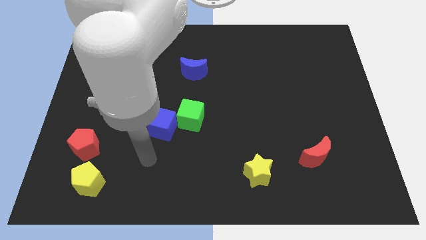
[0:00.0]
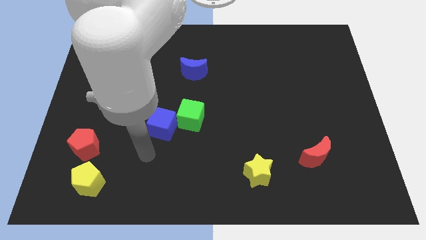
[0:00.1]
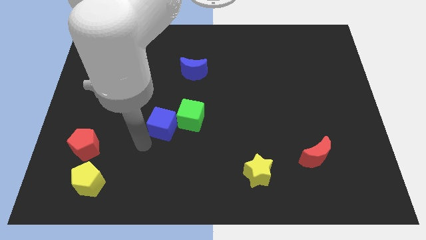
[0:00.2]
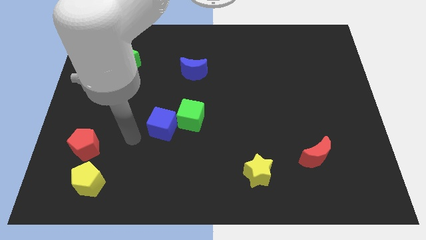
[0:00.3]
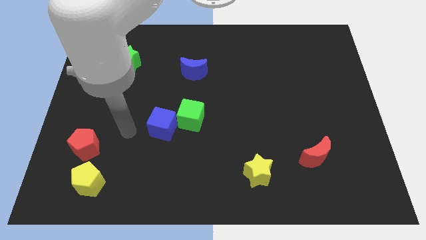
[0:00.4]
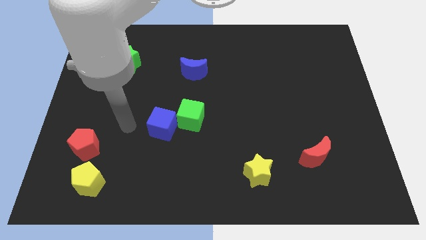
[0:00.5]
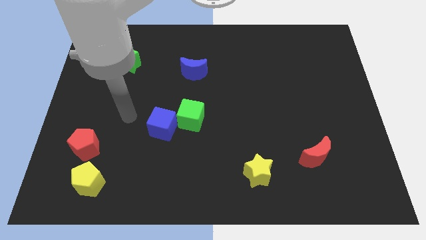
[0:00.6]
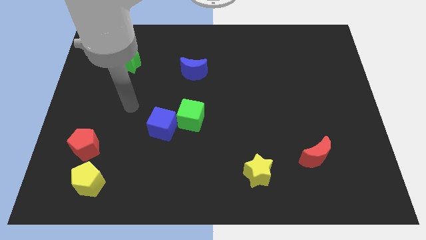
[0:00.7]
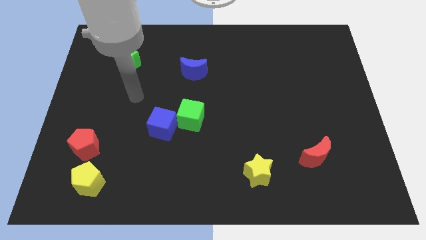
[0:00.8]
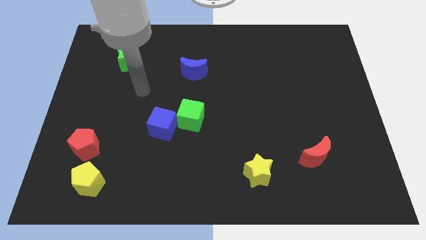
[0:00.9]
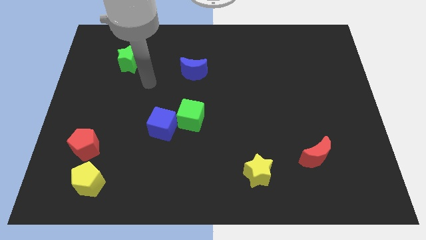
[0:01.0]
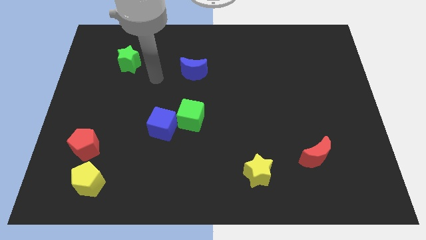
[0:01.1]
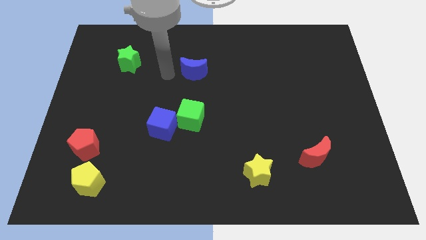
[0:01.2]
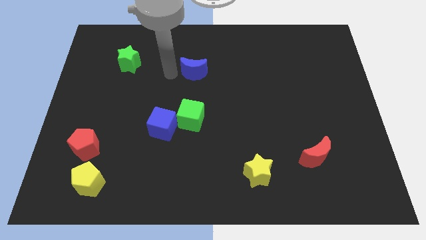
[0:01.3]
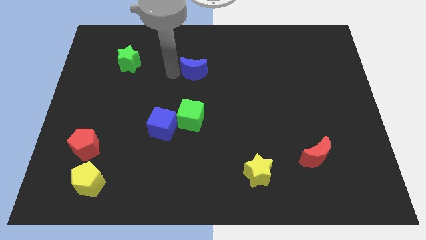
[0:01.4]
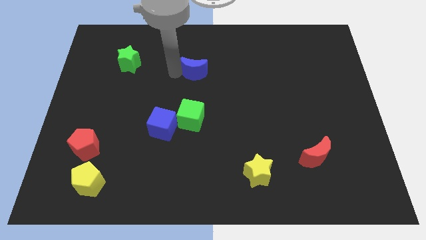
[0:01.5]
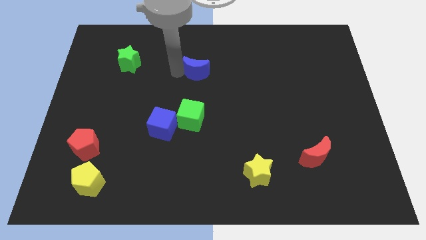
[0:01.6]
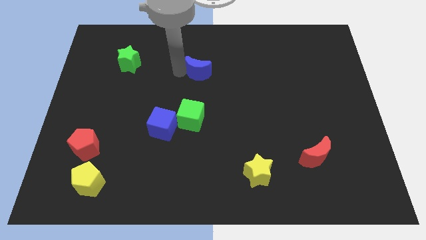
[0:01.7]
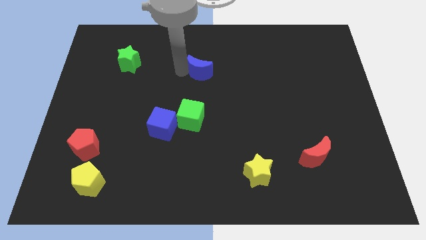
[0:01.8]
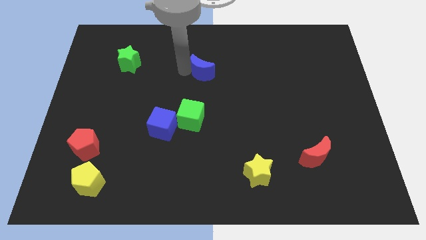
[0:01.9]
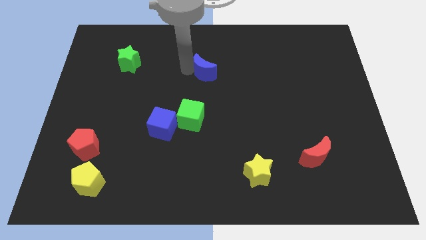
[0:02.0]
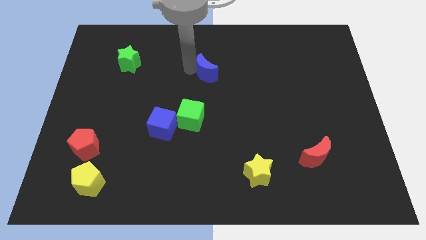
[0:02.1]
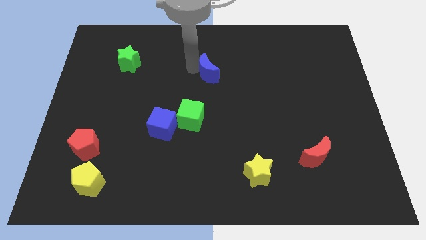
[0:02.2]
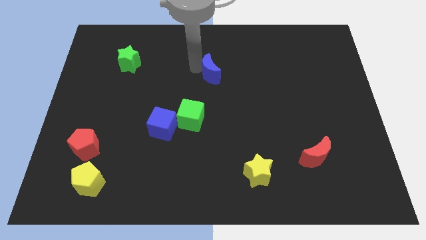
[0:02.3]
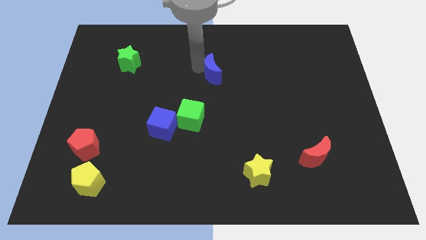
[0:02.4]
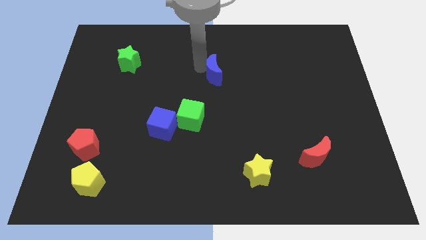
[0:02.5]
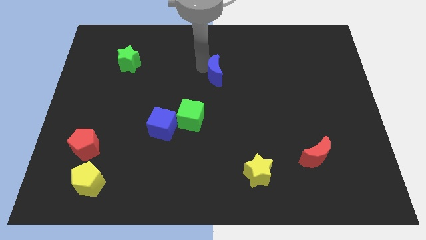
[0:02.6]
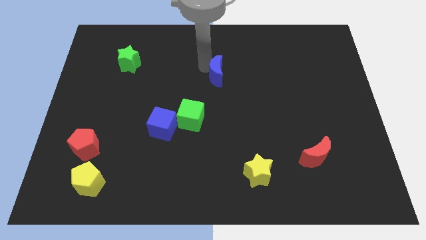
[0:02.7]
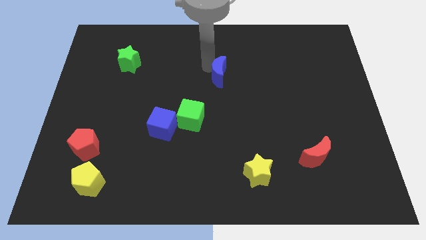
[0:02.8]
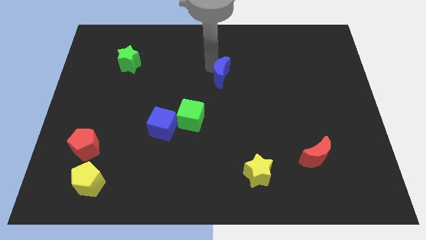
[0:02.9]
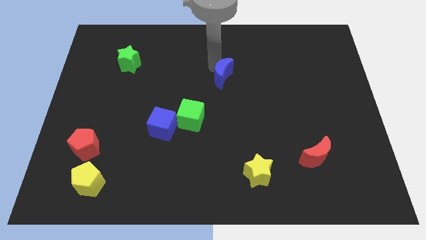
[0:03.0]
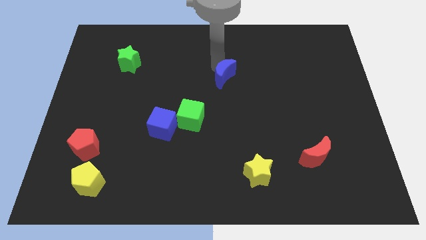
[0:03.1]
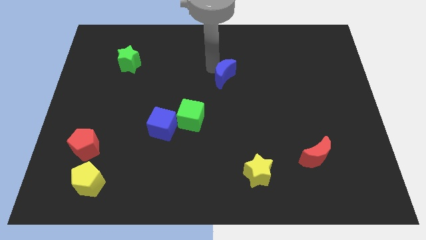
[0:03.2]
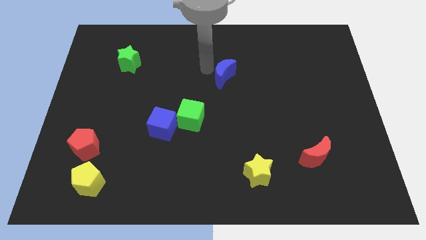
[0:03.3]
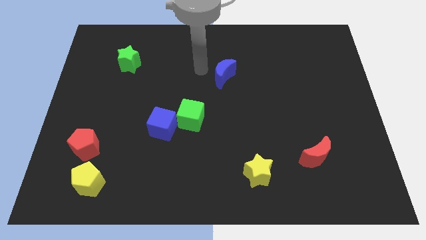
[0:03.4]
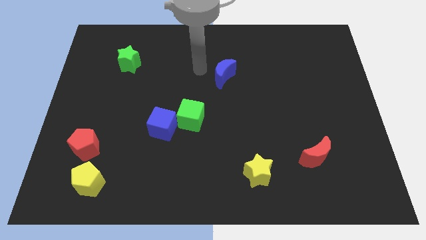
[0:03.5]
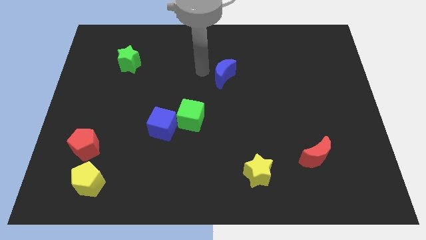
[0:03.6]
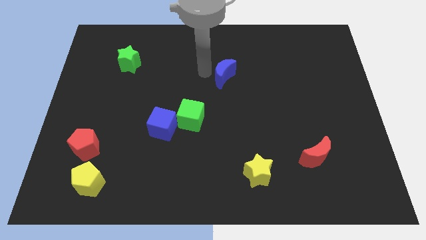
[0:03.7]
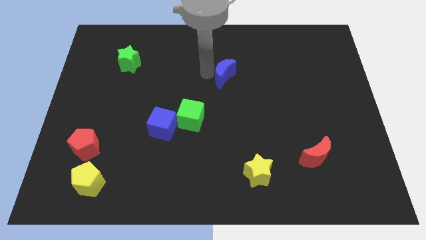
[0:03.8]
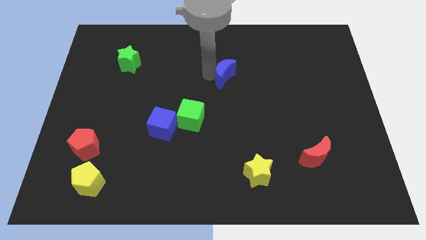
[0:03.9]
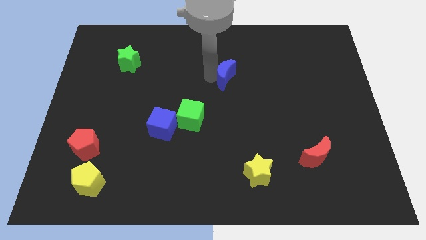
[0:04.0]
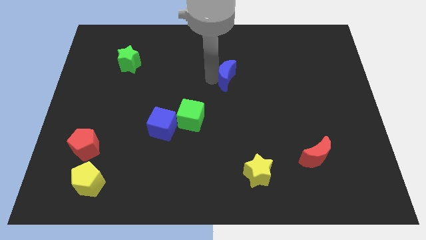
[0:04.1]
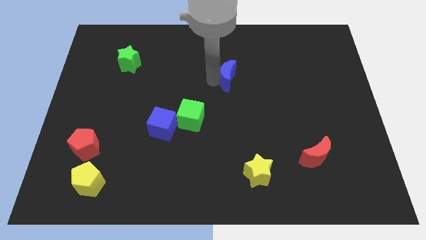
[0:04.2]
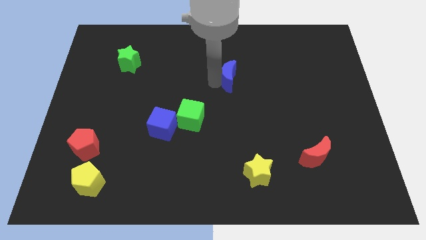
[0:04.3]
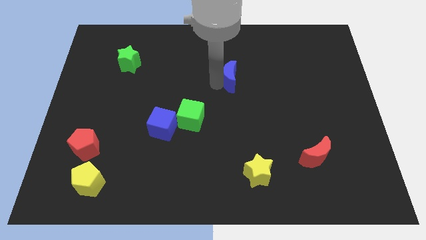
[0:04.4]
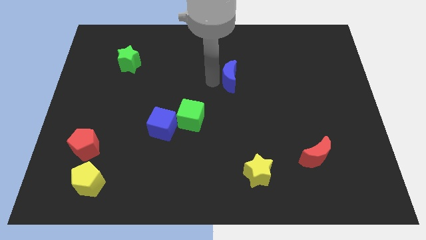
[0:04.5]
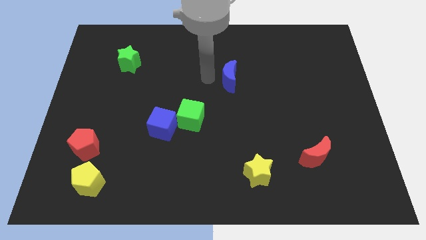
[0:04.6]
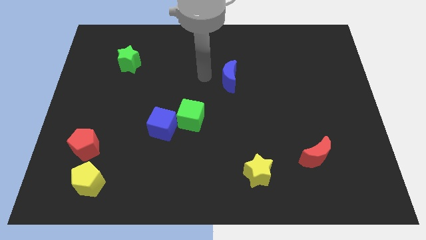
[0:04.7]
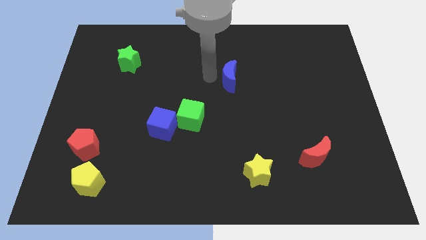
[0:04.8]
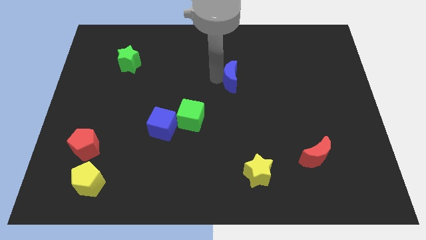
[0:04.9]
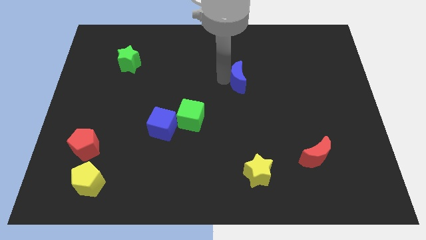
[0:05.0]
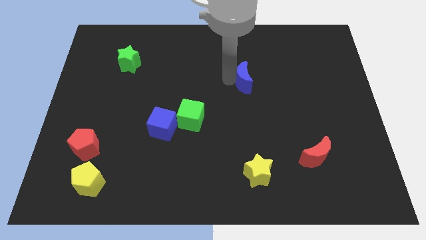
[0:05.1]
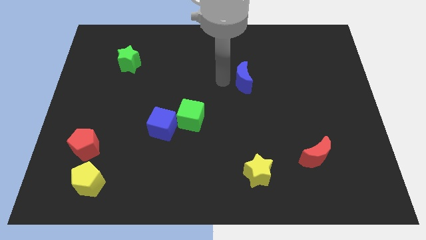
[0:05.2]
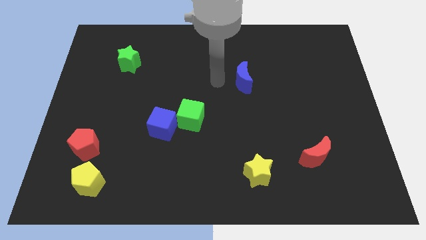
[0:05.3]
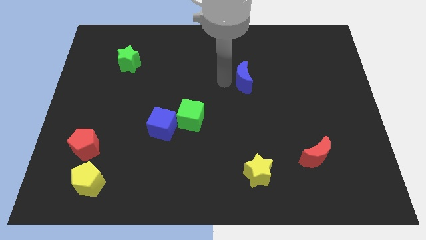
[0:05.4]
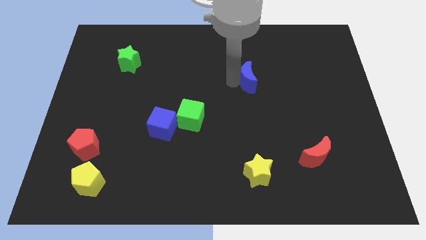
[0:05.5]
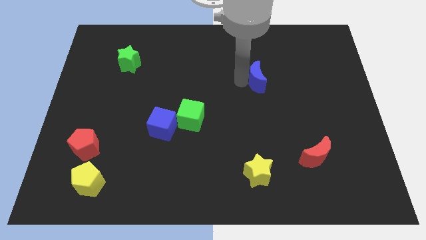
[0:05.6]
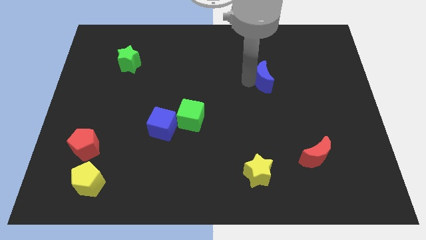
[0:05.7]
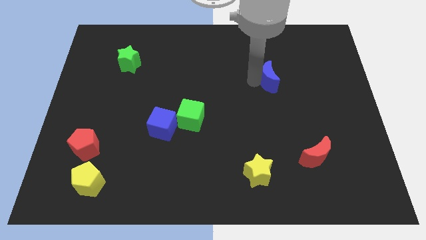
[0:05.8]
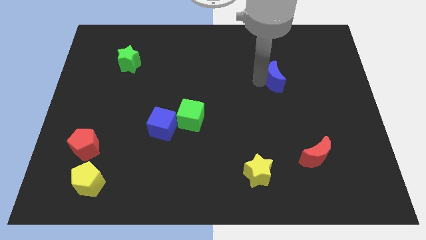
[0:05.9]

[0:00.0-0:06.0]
move the blue moon to the right

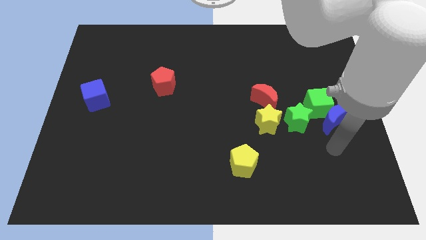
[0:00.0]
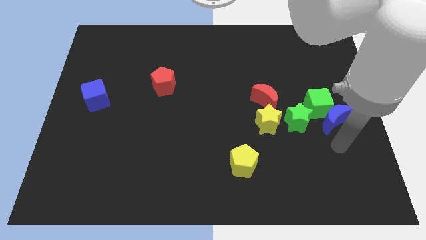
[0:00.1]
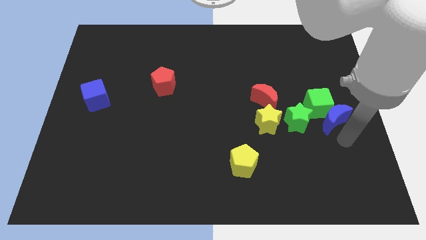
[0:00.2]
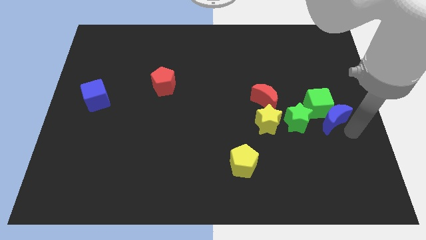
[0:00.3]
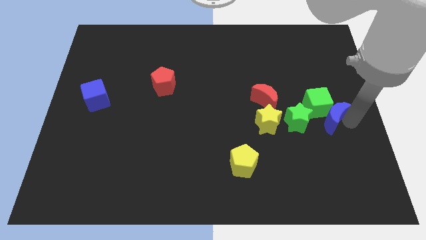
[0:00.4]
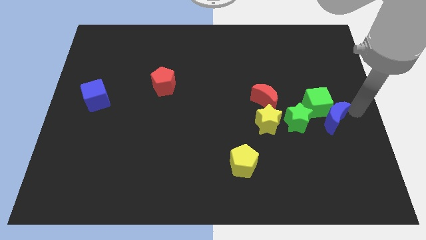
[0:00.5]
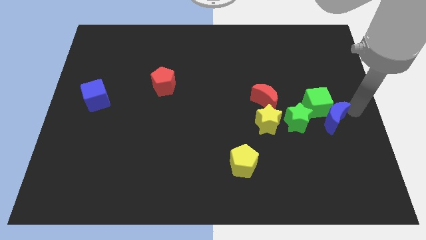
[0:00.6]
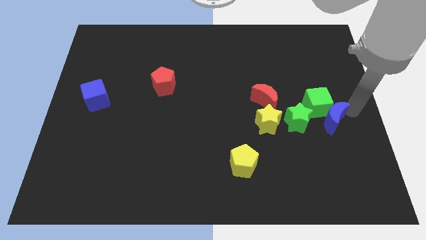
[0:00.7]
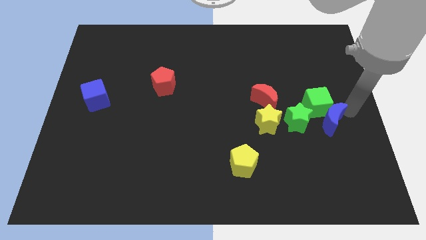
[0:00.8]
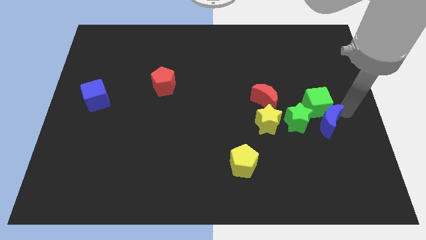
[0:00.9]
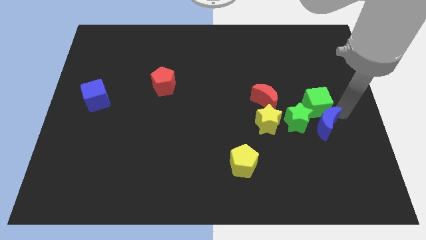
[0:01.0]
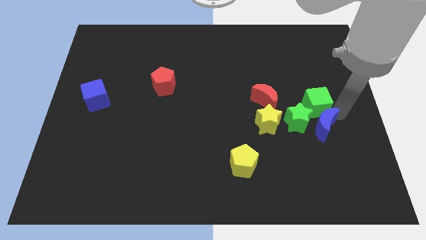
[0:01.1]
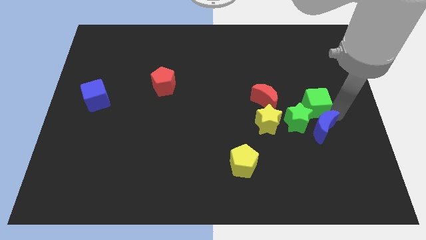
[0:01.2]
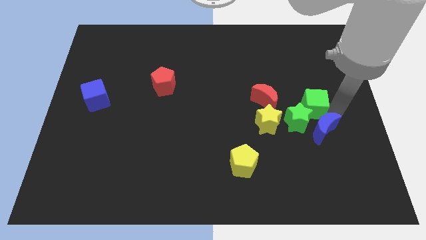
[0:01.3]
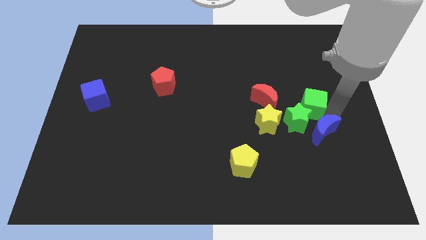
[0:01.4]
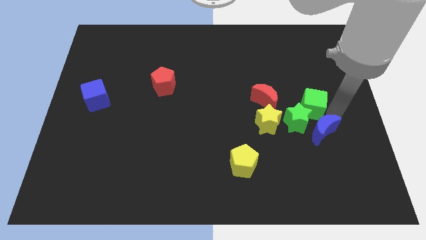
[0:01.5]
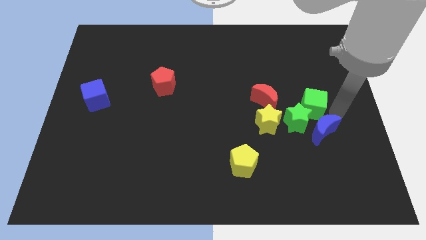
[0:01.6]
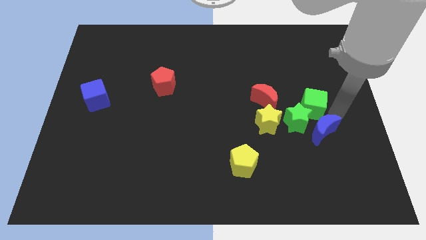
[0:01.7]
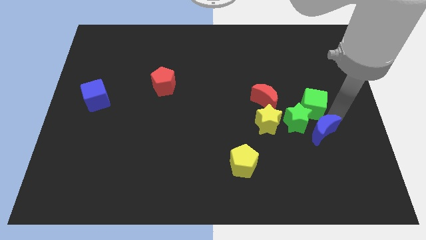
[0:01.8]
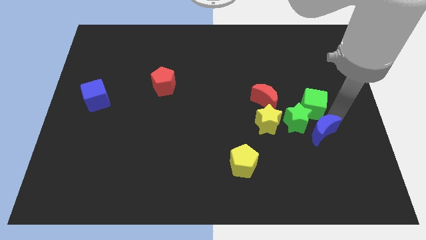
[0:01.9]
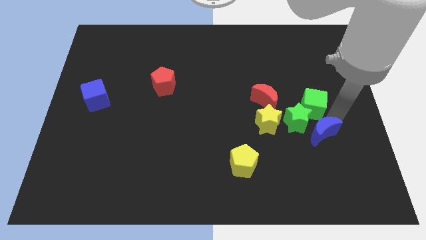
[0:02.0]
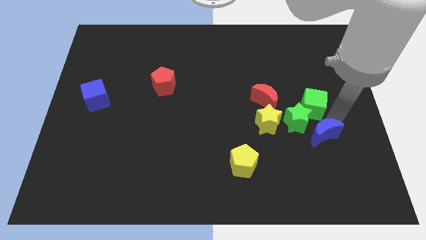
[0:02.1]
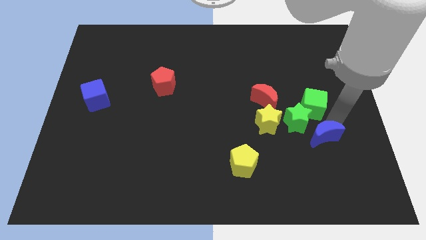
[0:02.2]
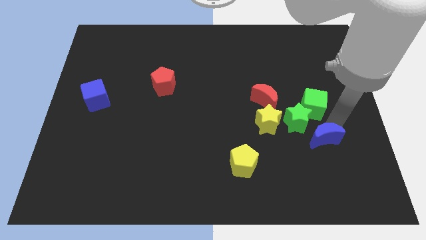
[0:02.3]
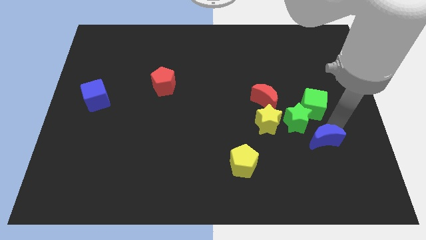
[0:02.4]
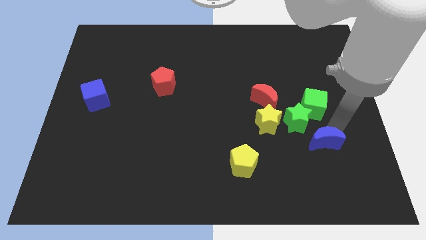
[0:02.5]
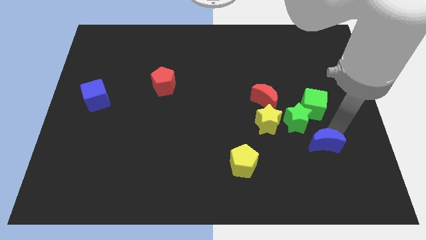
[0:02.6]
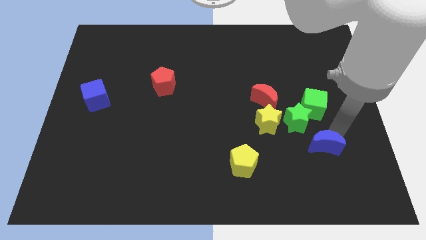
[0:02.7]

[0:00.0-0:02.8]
slightly slide the blue moon down and left
